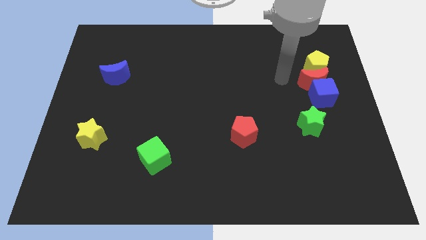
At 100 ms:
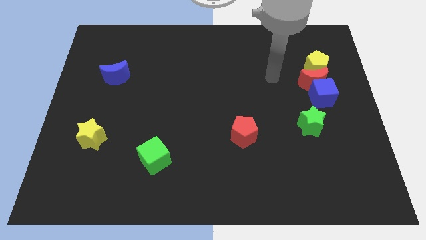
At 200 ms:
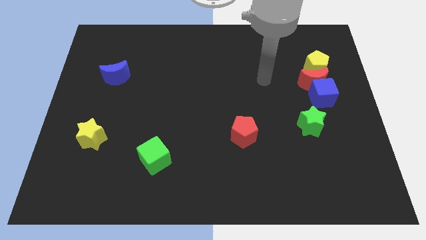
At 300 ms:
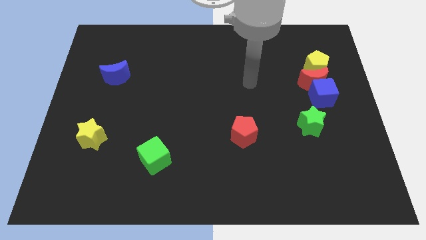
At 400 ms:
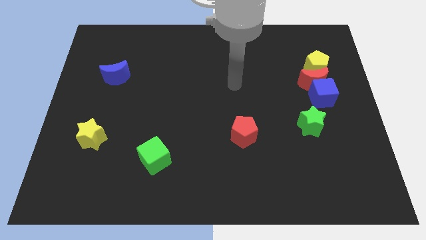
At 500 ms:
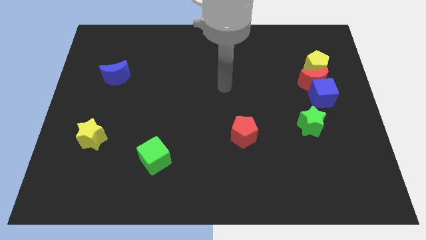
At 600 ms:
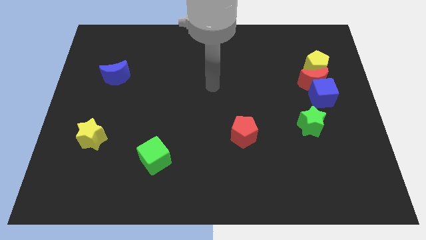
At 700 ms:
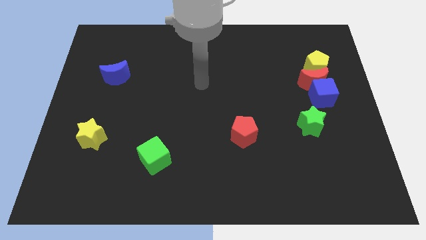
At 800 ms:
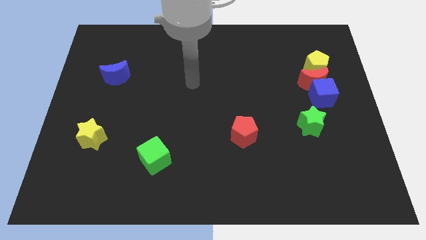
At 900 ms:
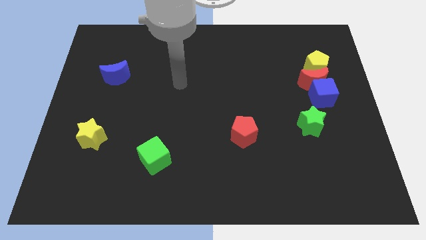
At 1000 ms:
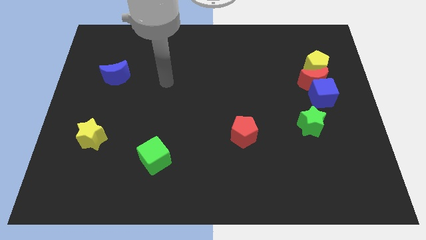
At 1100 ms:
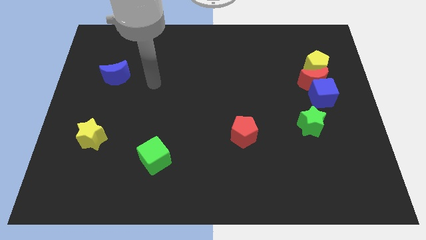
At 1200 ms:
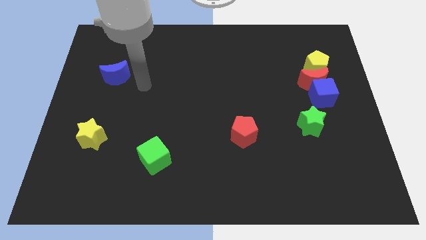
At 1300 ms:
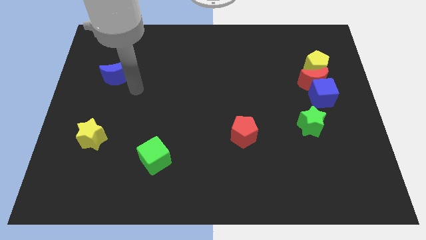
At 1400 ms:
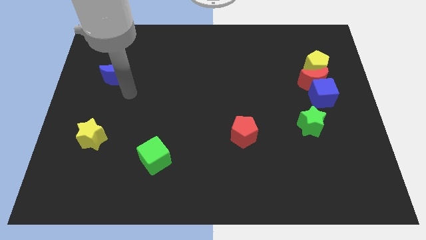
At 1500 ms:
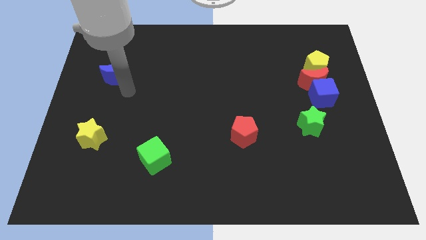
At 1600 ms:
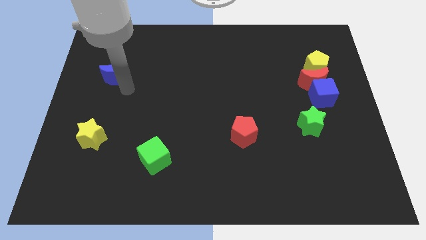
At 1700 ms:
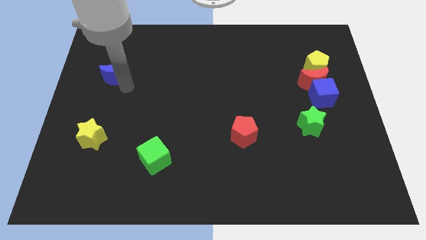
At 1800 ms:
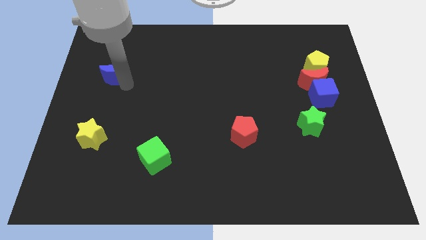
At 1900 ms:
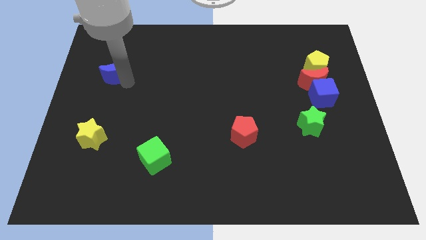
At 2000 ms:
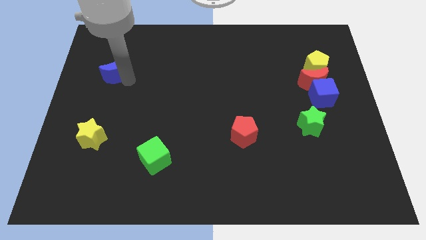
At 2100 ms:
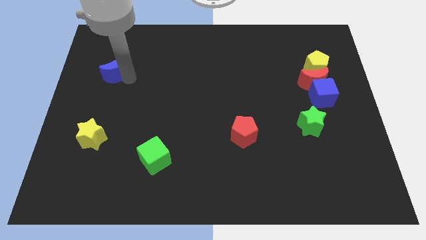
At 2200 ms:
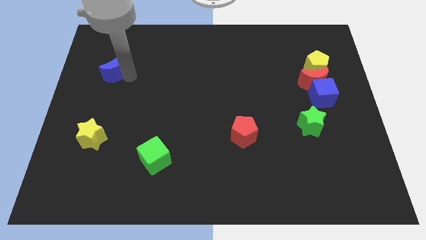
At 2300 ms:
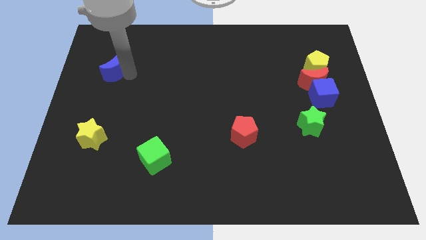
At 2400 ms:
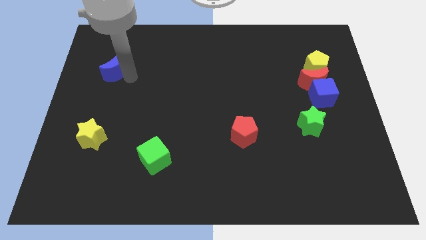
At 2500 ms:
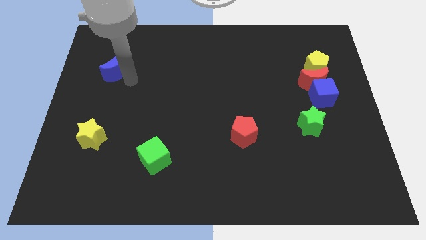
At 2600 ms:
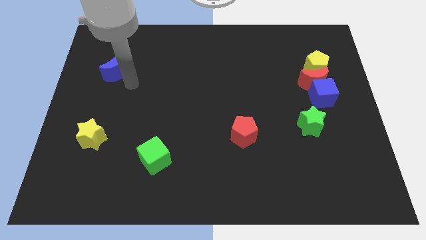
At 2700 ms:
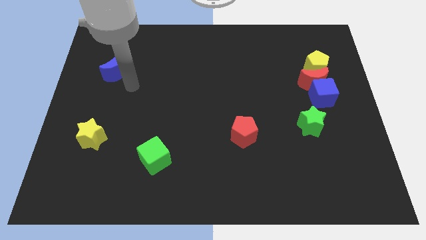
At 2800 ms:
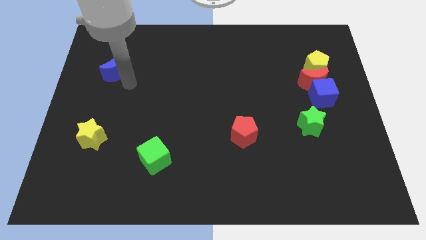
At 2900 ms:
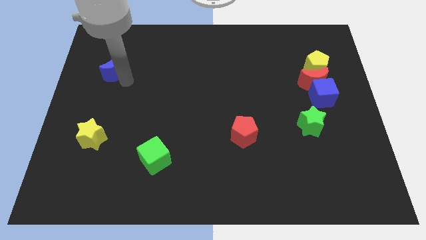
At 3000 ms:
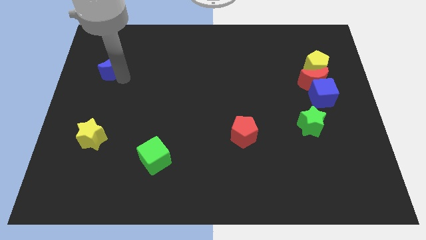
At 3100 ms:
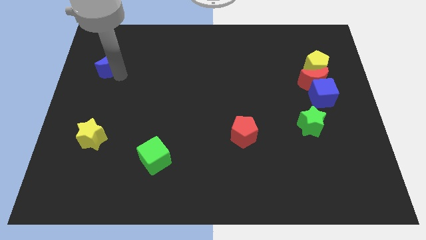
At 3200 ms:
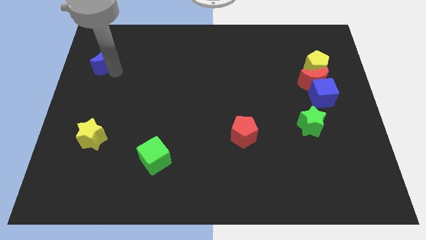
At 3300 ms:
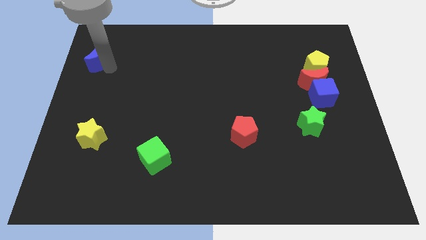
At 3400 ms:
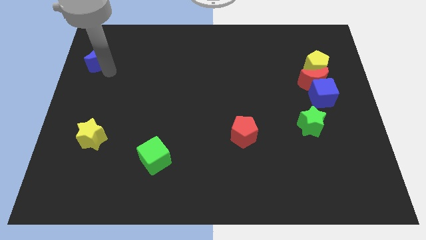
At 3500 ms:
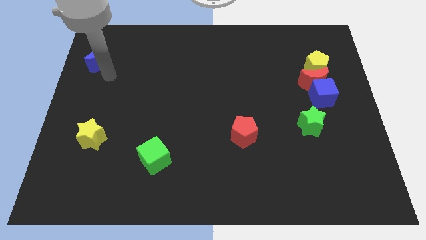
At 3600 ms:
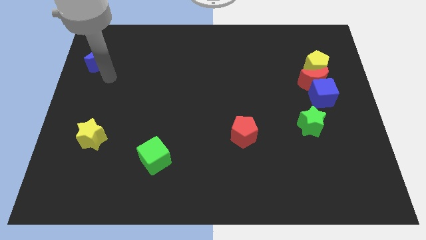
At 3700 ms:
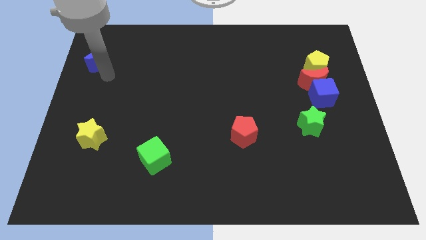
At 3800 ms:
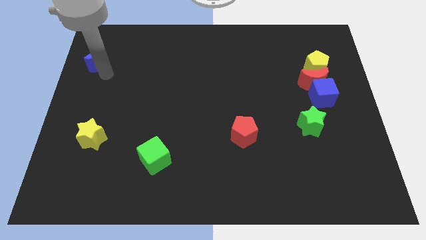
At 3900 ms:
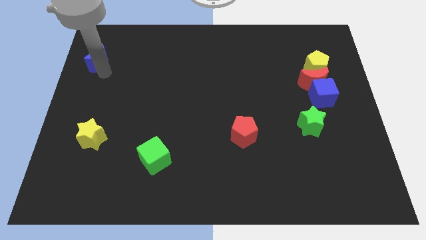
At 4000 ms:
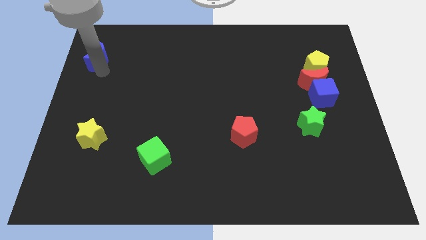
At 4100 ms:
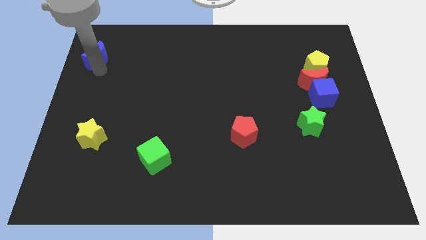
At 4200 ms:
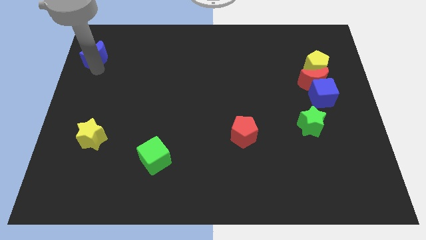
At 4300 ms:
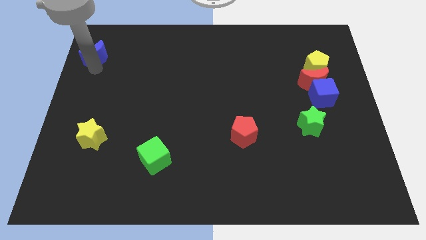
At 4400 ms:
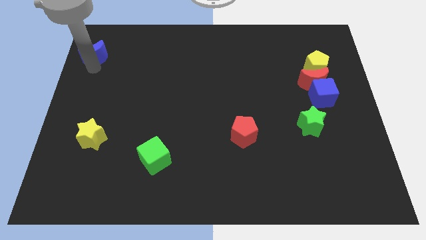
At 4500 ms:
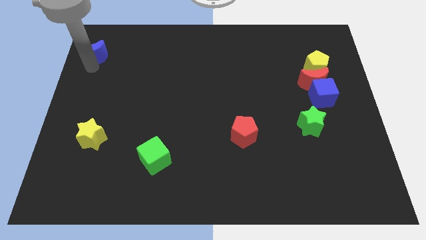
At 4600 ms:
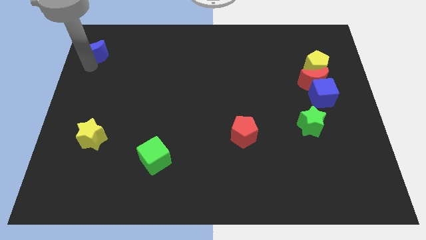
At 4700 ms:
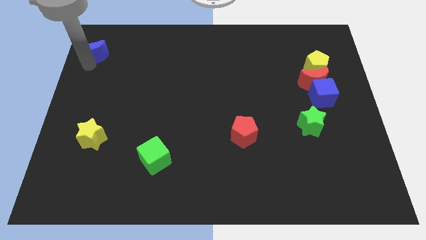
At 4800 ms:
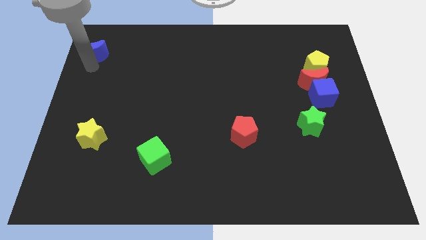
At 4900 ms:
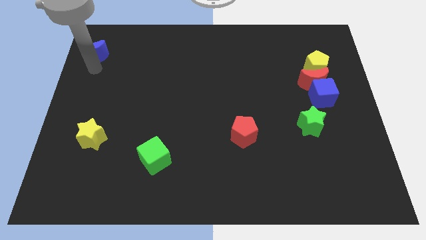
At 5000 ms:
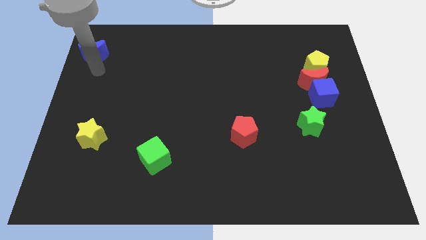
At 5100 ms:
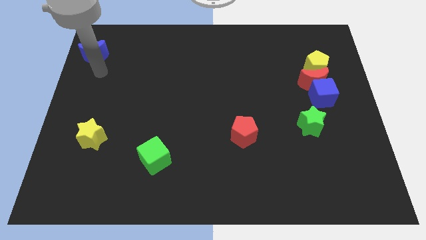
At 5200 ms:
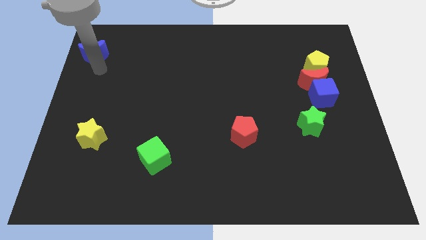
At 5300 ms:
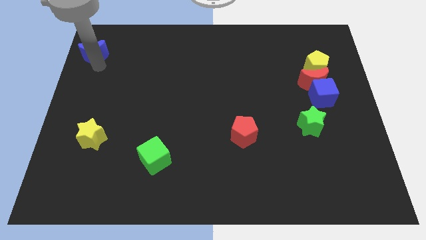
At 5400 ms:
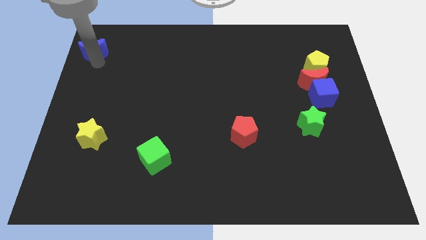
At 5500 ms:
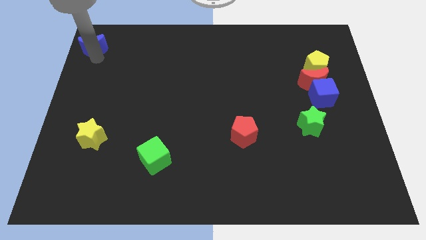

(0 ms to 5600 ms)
push the blue moon to the top left corner

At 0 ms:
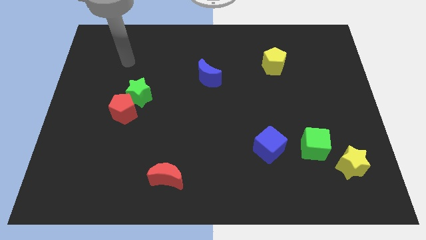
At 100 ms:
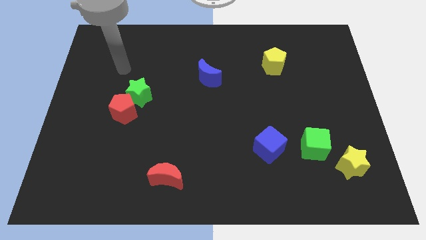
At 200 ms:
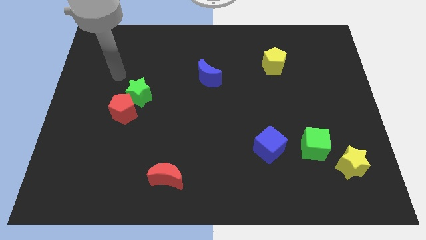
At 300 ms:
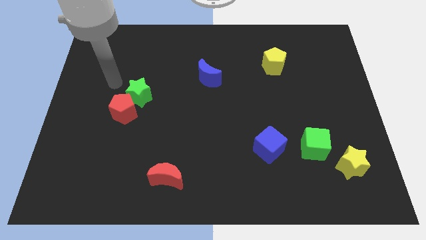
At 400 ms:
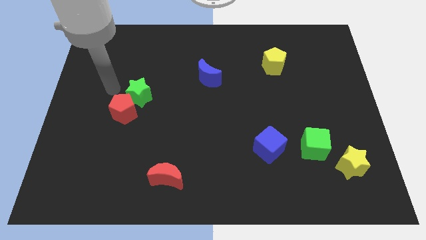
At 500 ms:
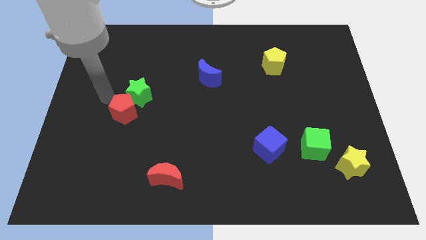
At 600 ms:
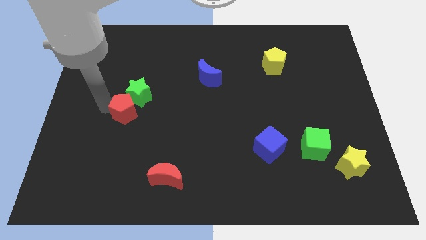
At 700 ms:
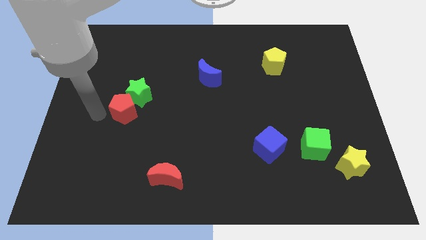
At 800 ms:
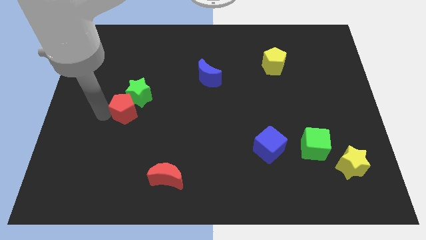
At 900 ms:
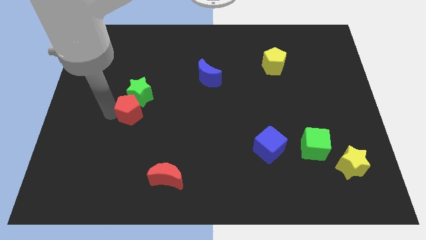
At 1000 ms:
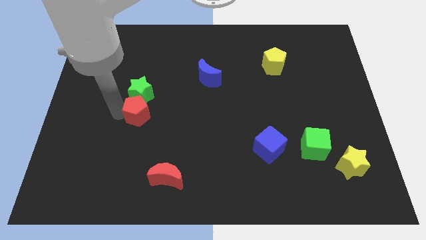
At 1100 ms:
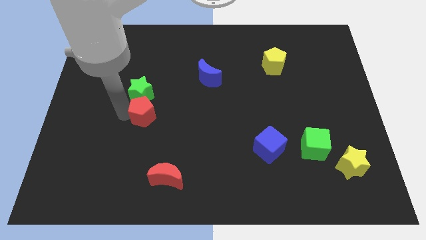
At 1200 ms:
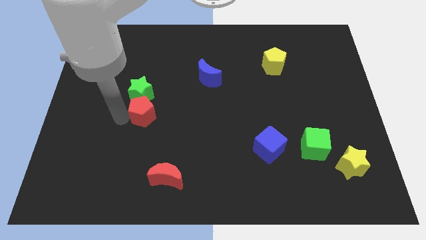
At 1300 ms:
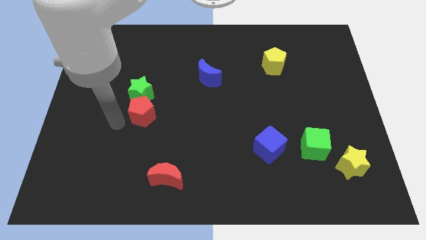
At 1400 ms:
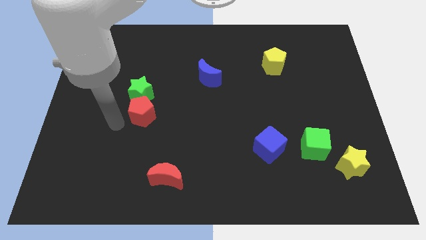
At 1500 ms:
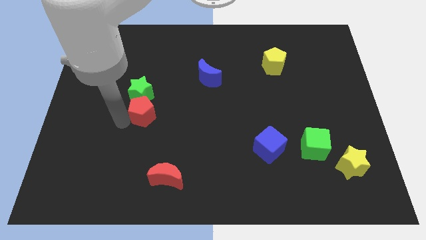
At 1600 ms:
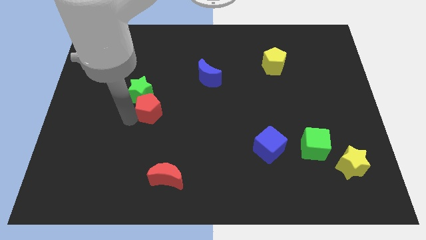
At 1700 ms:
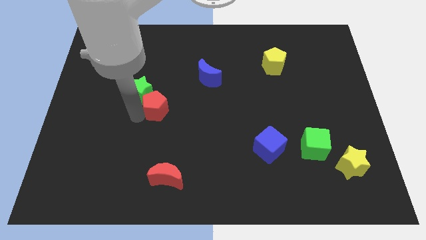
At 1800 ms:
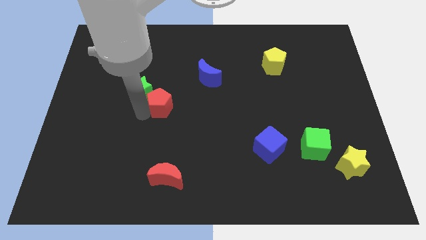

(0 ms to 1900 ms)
slide the red pentagon to the center of the board
